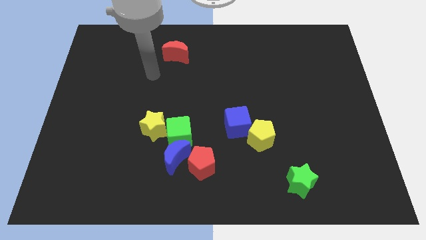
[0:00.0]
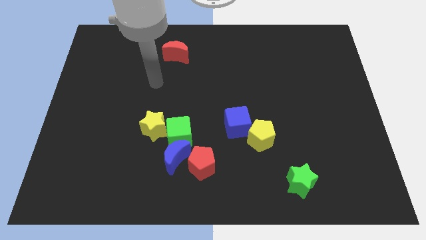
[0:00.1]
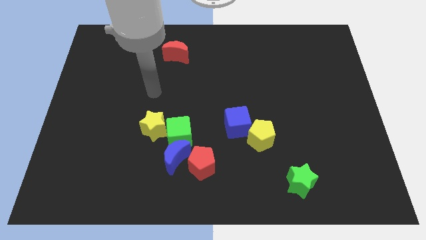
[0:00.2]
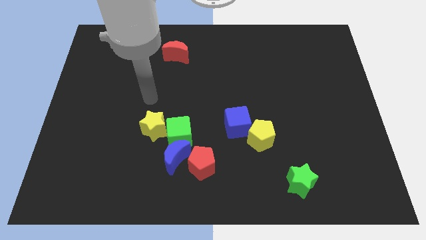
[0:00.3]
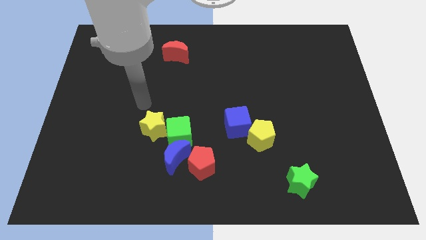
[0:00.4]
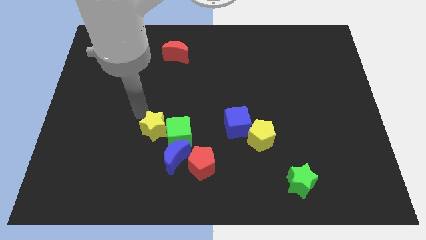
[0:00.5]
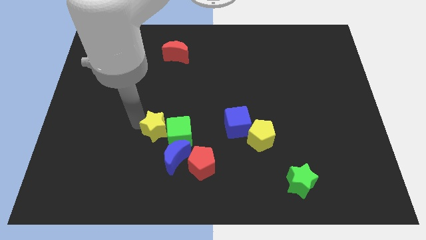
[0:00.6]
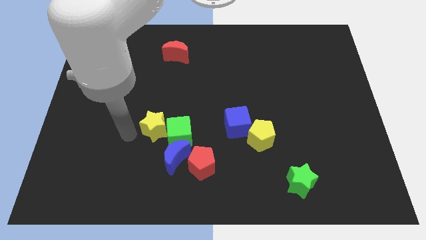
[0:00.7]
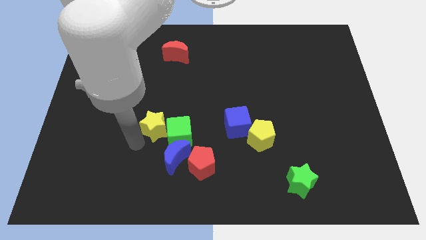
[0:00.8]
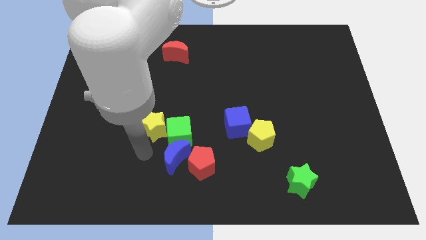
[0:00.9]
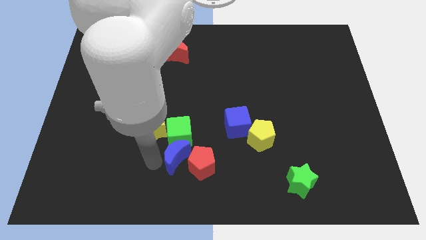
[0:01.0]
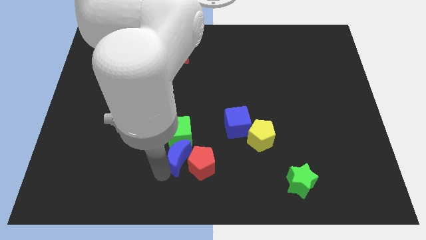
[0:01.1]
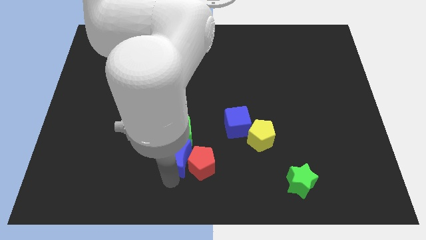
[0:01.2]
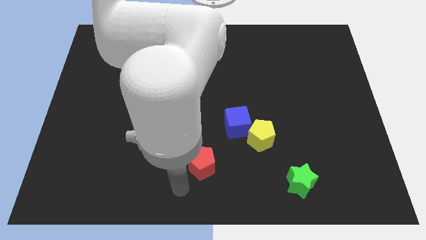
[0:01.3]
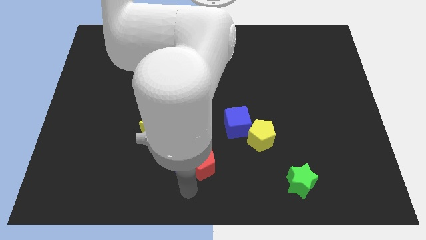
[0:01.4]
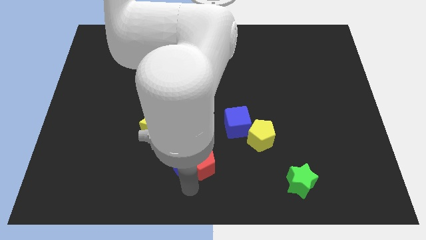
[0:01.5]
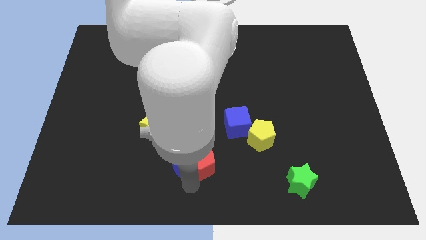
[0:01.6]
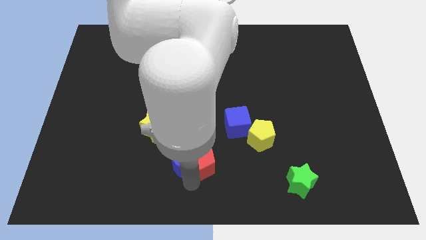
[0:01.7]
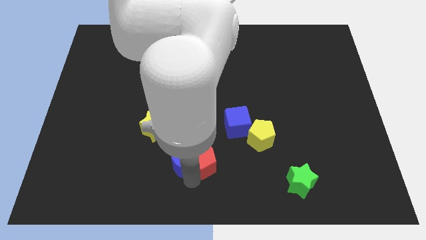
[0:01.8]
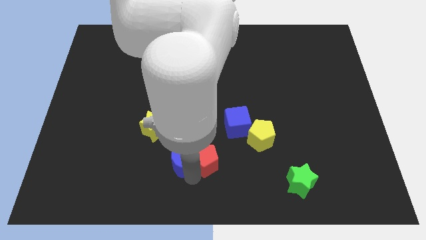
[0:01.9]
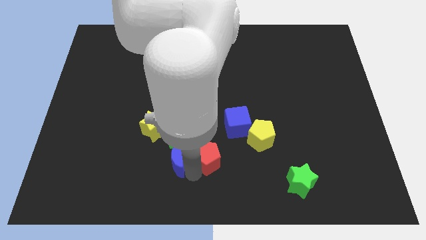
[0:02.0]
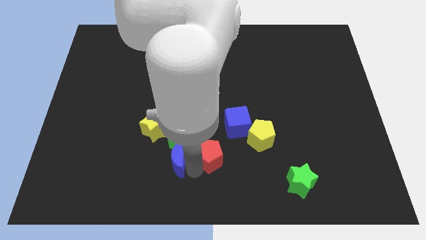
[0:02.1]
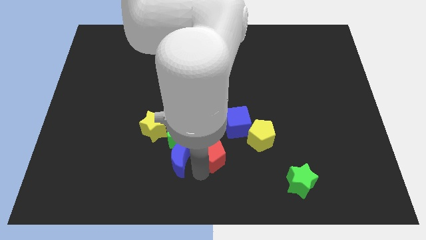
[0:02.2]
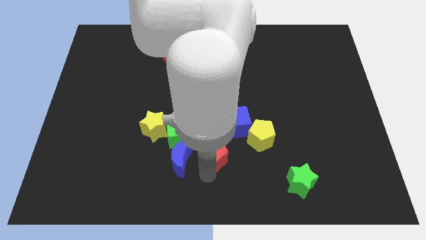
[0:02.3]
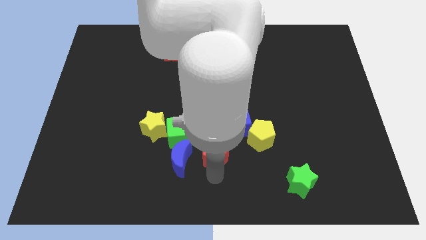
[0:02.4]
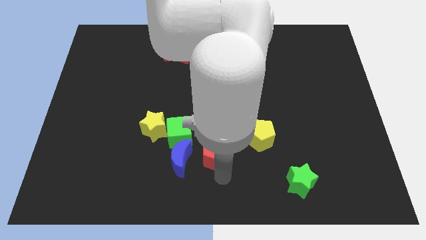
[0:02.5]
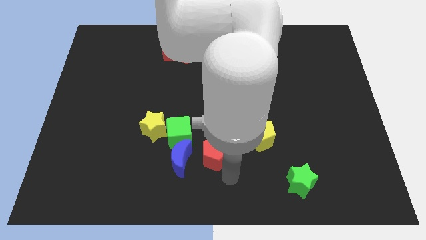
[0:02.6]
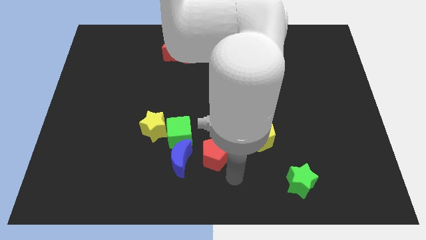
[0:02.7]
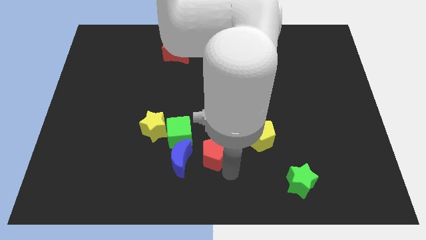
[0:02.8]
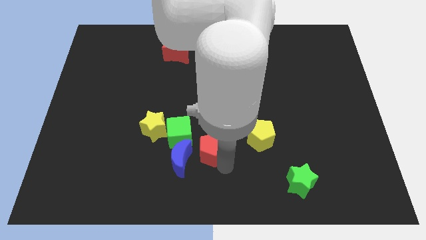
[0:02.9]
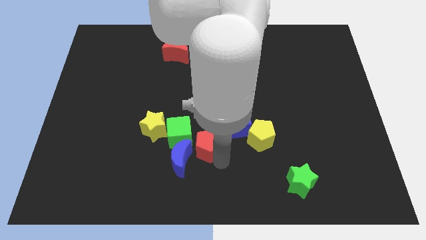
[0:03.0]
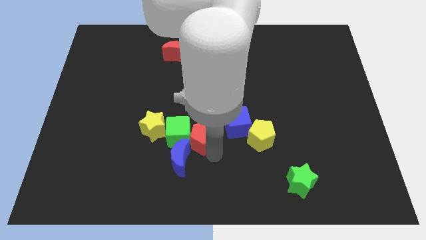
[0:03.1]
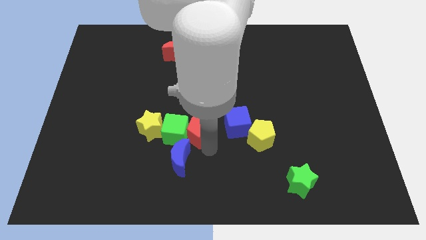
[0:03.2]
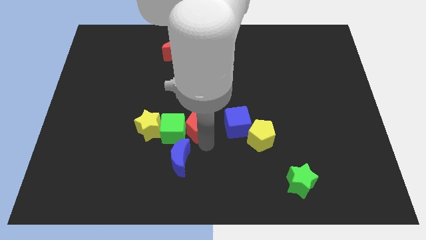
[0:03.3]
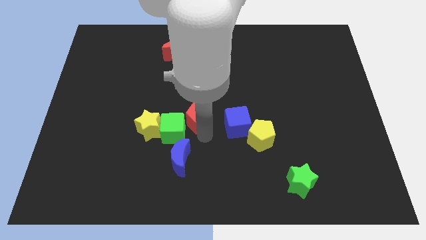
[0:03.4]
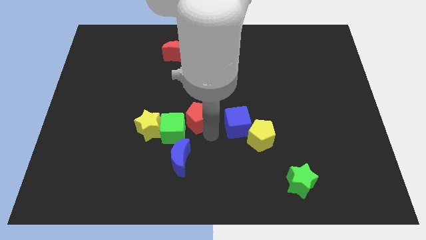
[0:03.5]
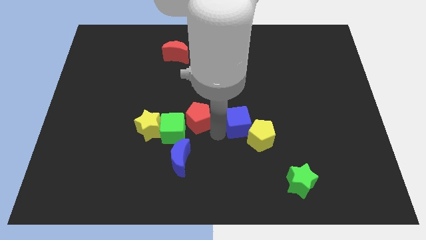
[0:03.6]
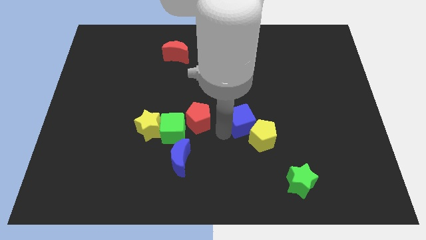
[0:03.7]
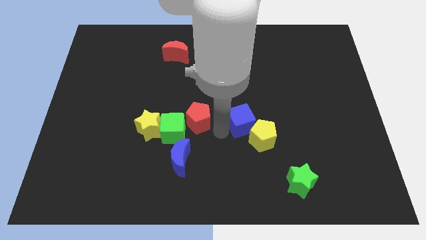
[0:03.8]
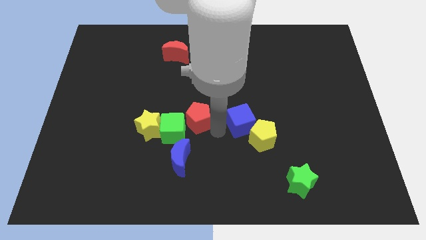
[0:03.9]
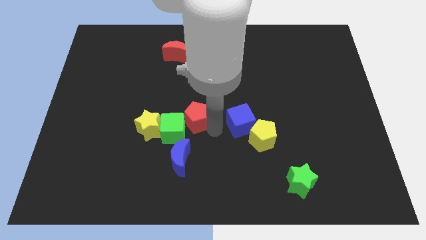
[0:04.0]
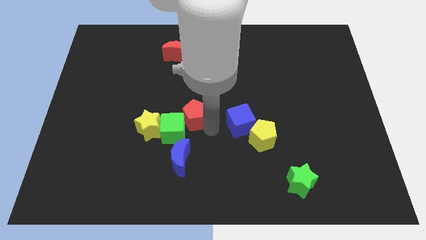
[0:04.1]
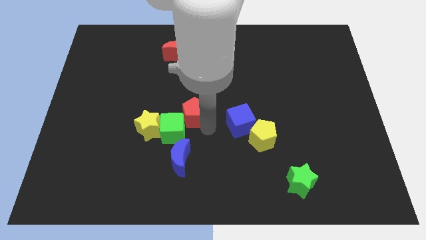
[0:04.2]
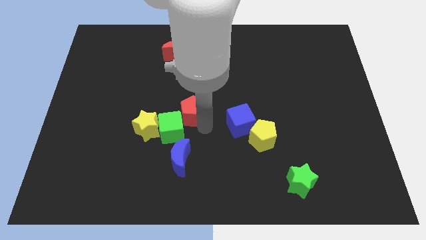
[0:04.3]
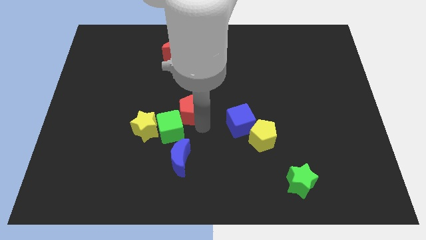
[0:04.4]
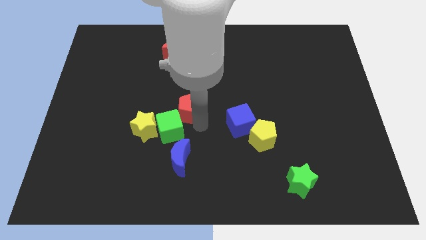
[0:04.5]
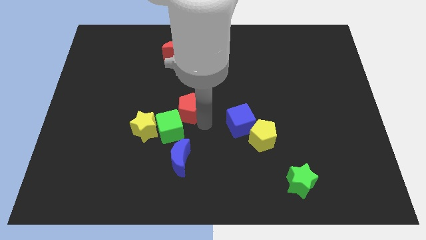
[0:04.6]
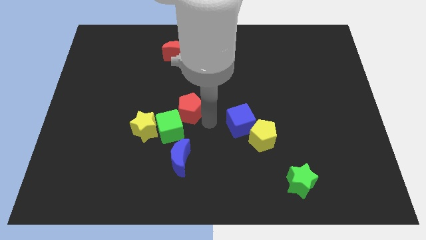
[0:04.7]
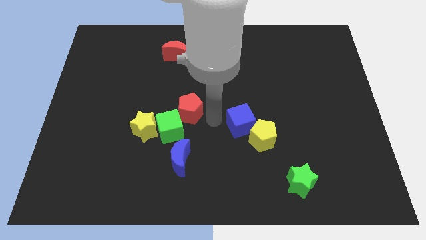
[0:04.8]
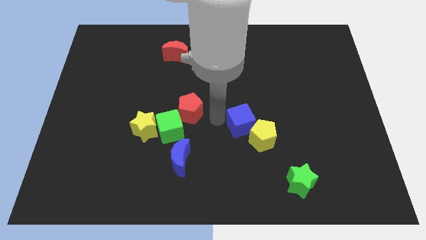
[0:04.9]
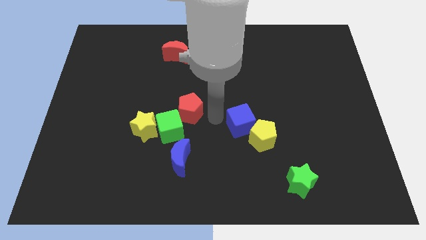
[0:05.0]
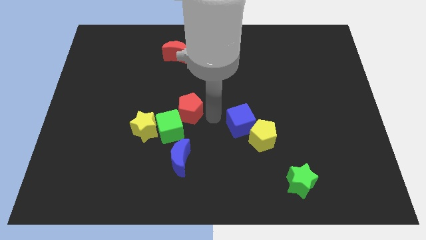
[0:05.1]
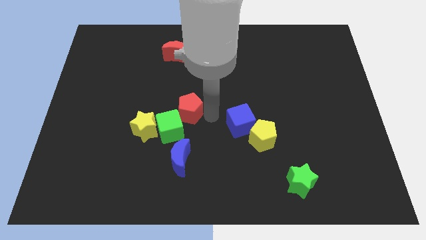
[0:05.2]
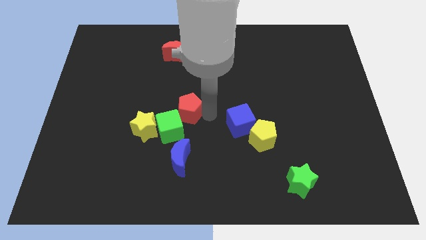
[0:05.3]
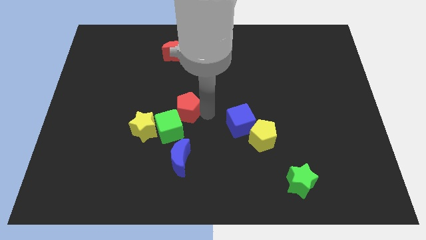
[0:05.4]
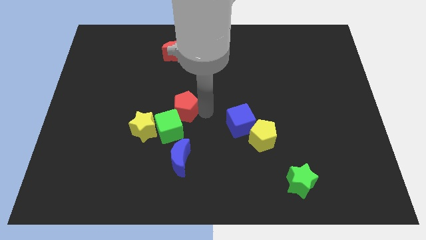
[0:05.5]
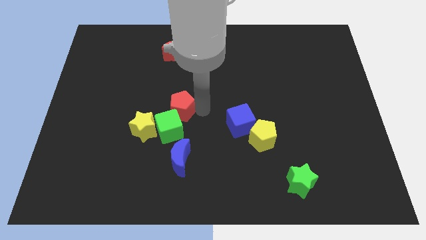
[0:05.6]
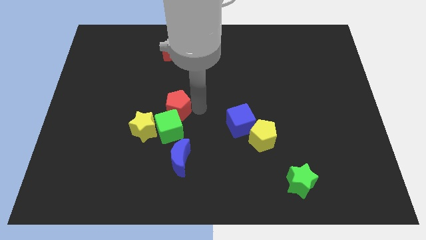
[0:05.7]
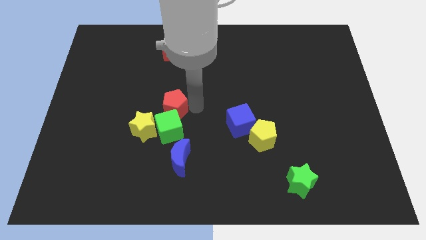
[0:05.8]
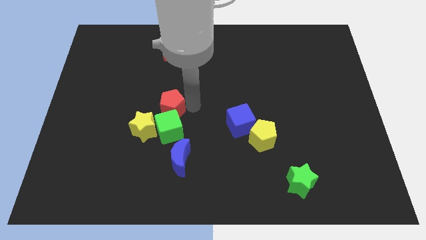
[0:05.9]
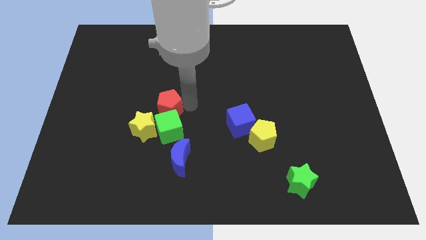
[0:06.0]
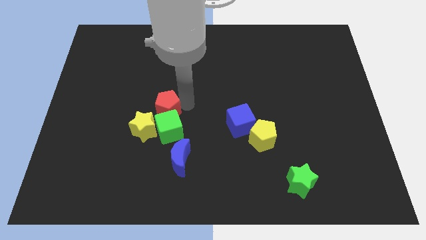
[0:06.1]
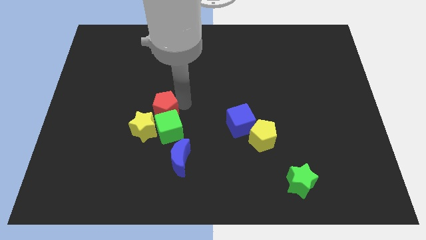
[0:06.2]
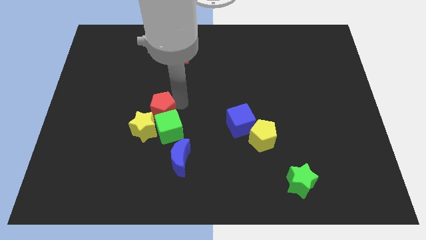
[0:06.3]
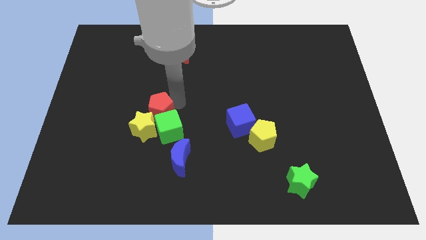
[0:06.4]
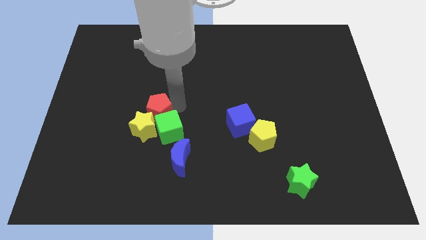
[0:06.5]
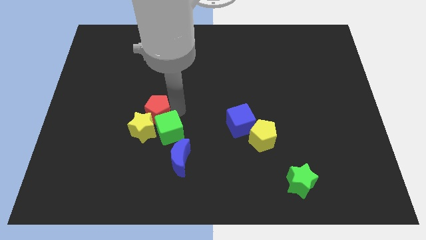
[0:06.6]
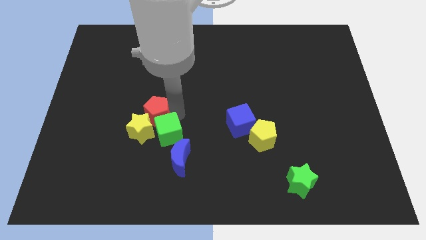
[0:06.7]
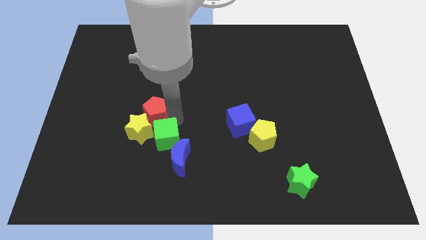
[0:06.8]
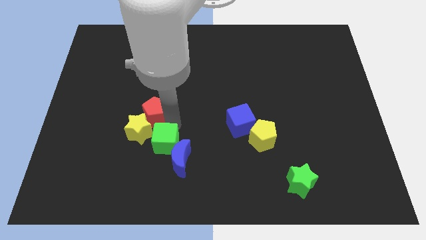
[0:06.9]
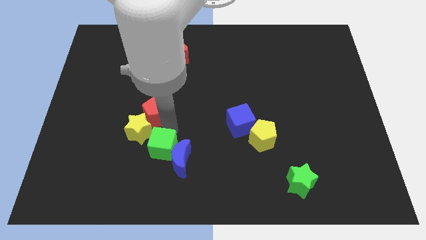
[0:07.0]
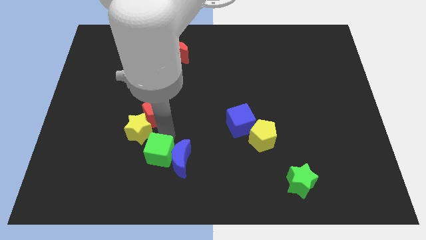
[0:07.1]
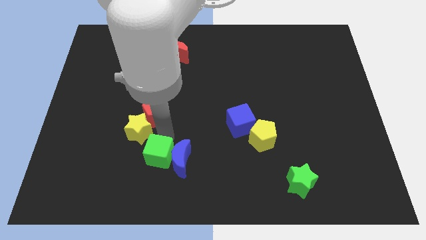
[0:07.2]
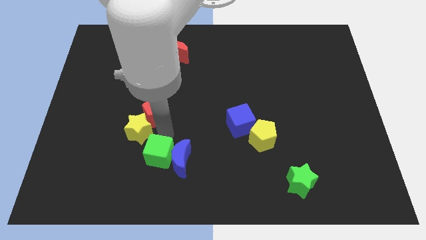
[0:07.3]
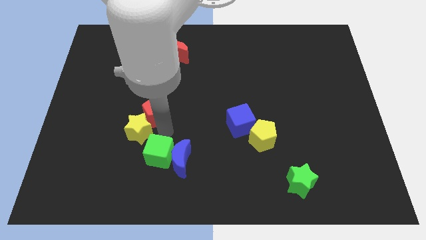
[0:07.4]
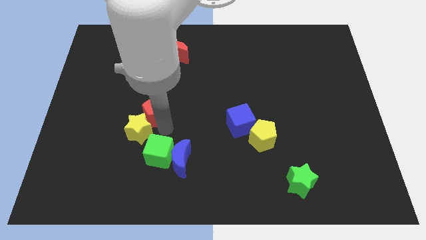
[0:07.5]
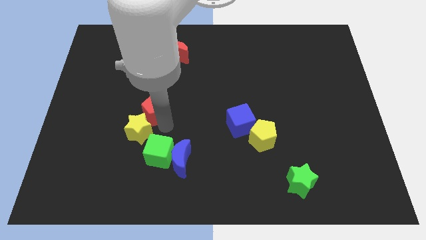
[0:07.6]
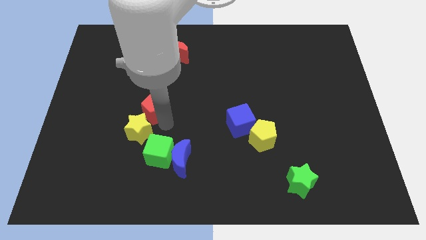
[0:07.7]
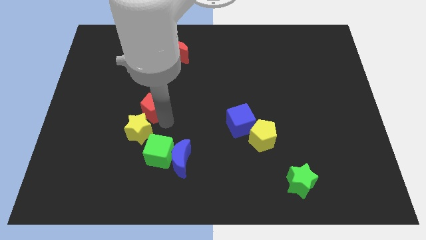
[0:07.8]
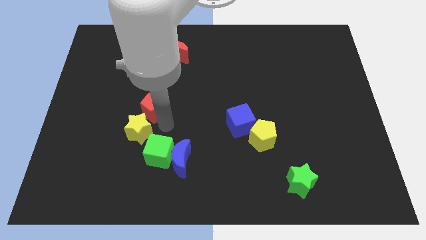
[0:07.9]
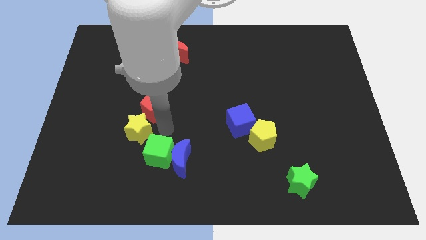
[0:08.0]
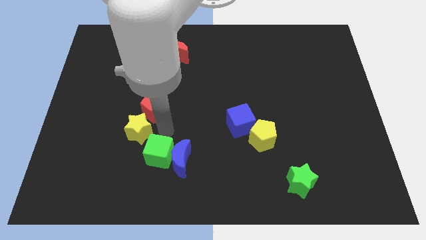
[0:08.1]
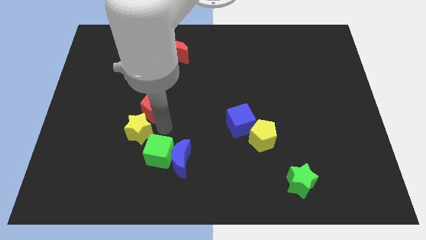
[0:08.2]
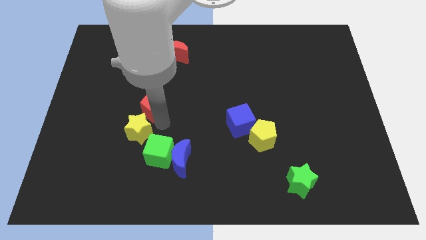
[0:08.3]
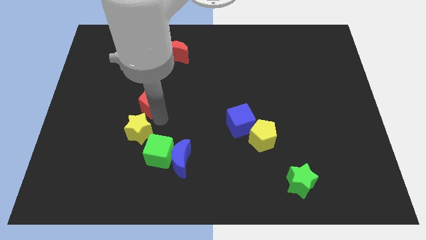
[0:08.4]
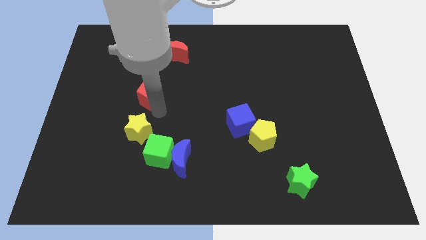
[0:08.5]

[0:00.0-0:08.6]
move the red pentagon up and to the left
